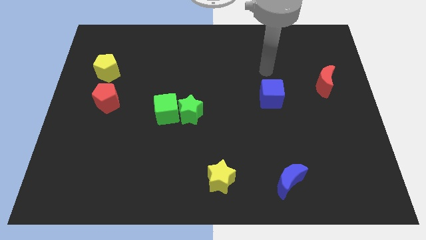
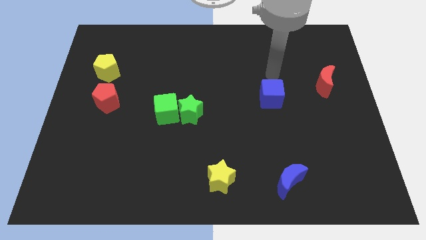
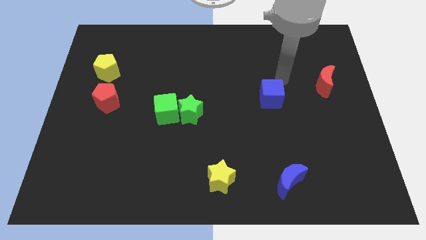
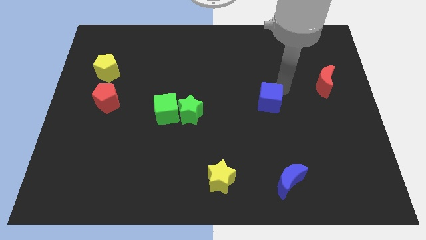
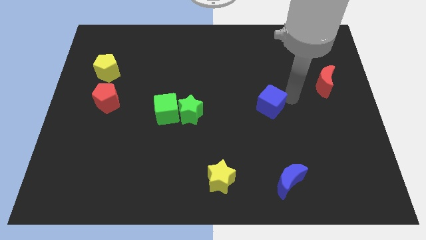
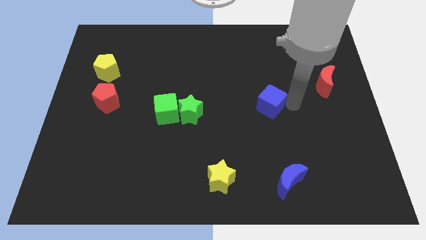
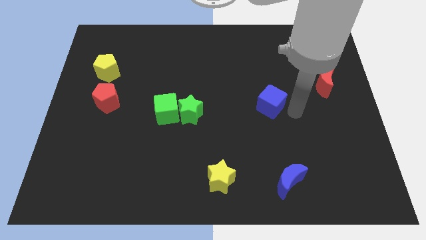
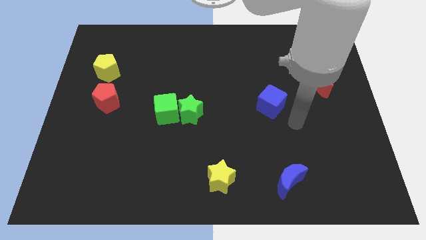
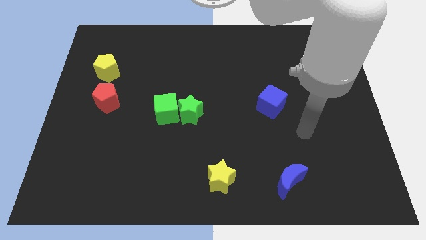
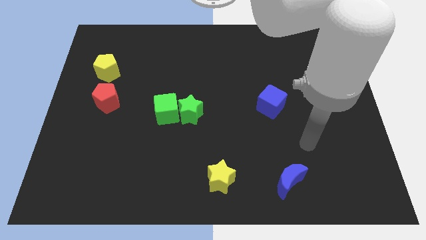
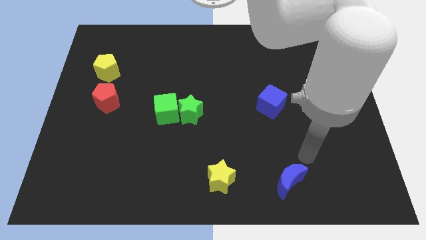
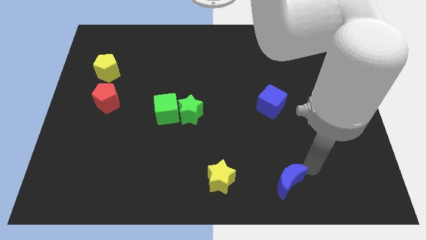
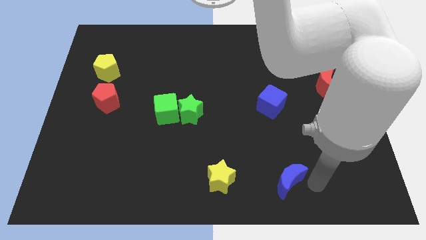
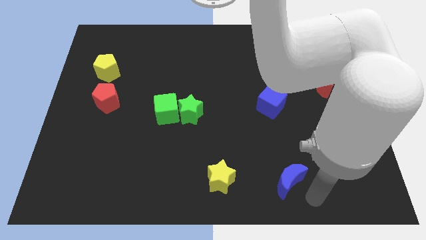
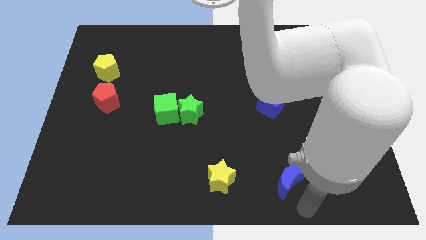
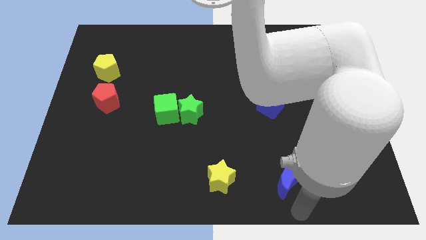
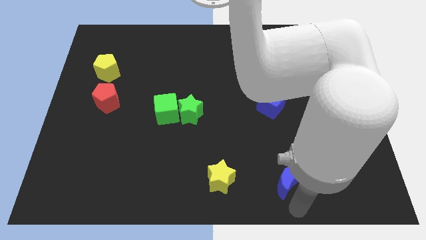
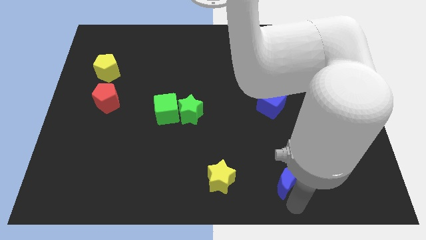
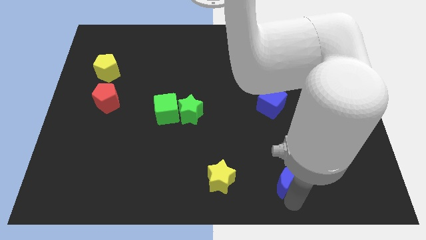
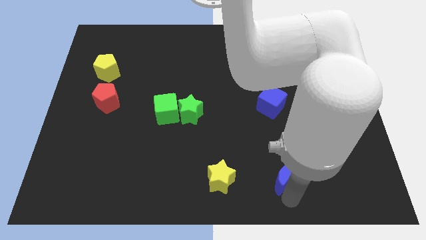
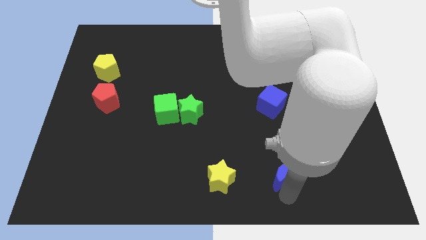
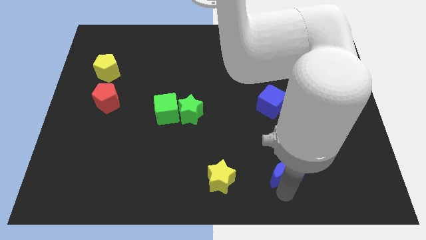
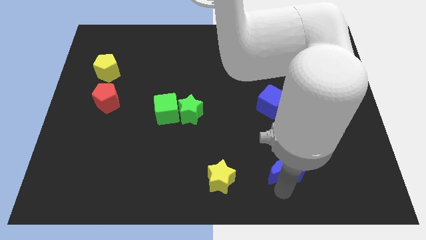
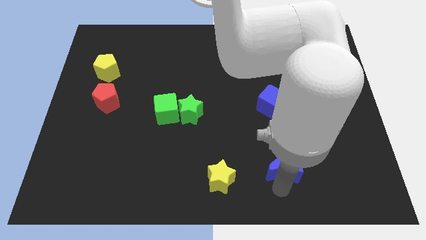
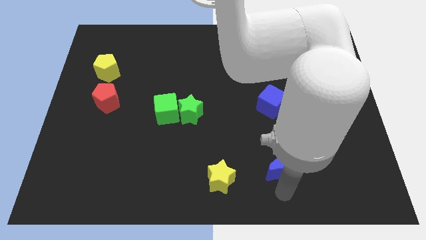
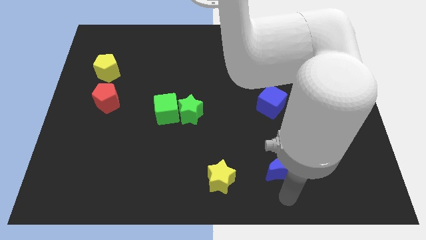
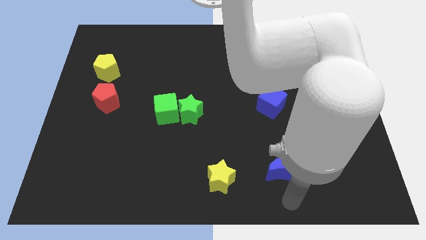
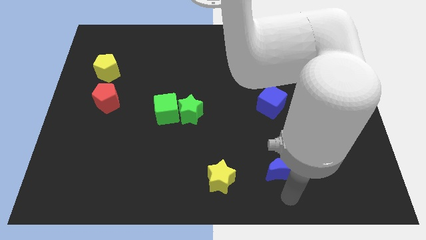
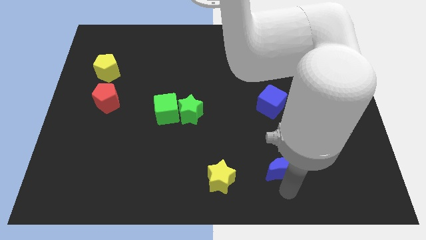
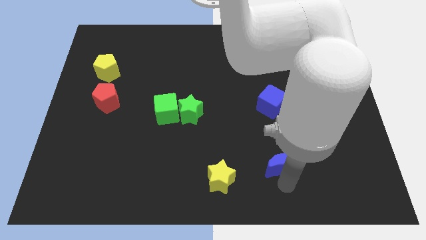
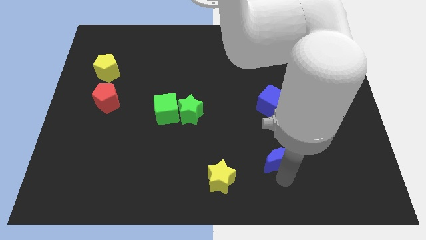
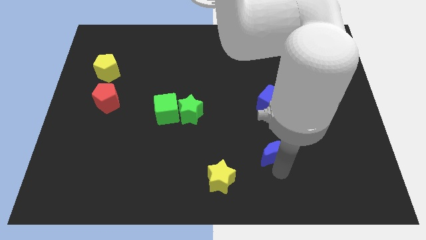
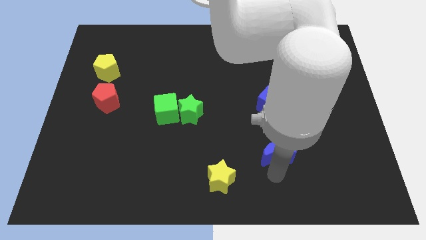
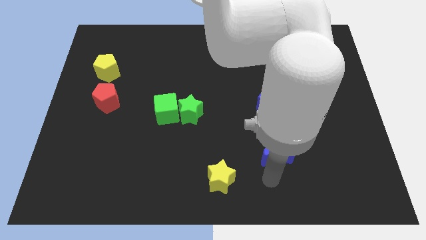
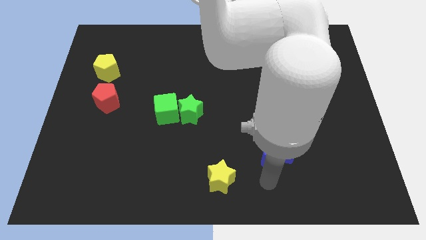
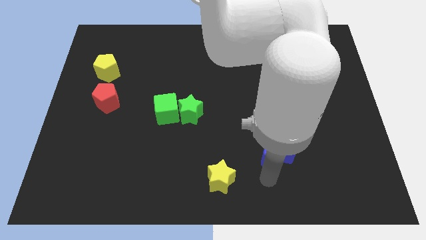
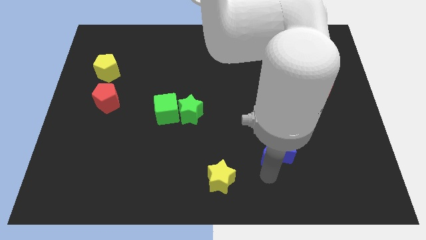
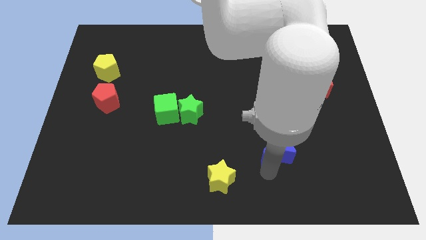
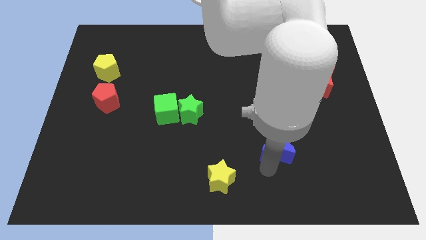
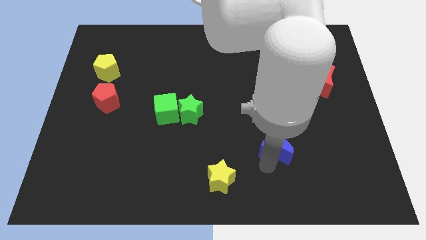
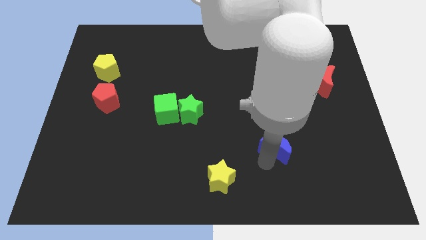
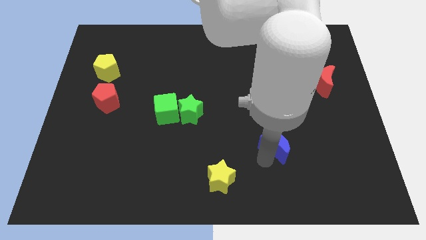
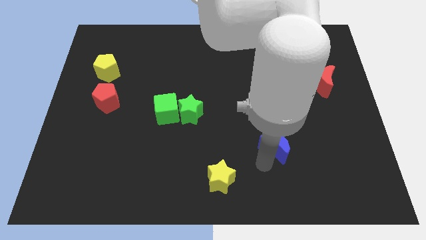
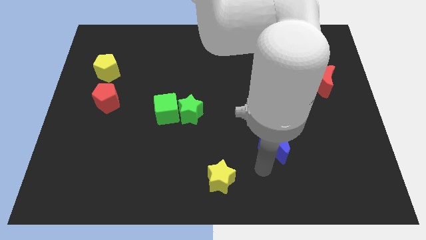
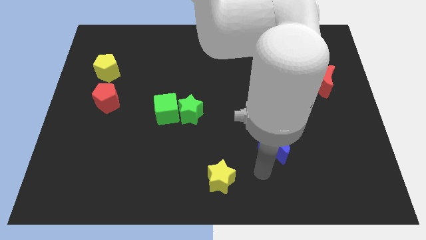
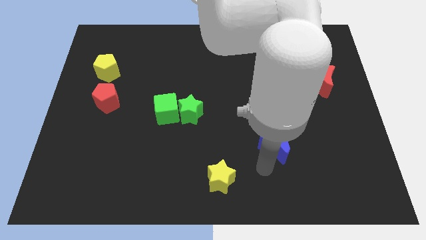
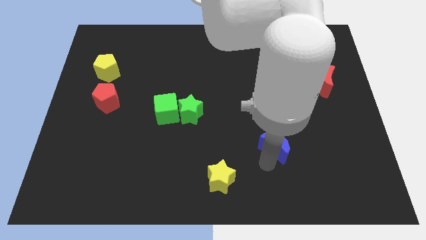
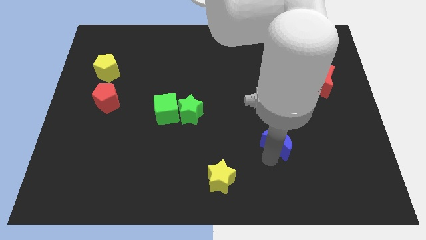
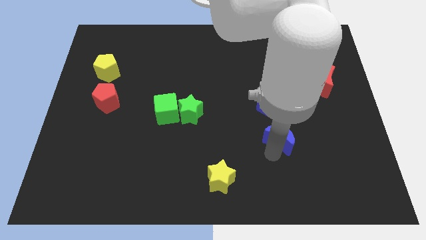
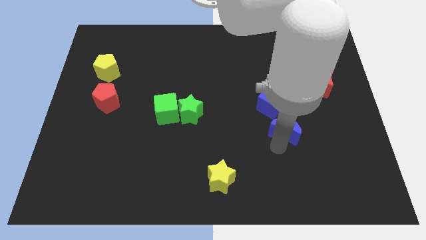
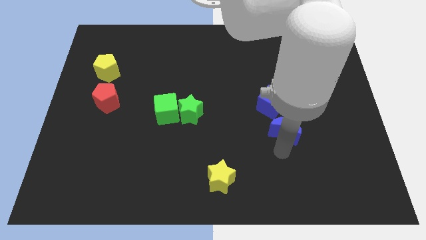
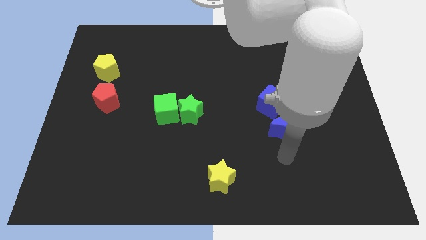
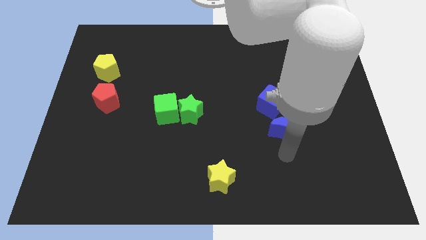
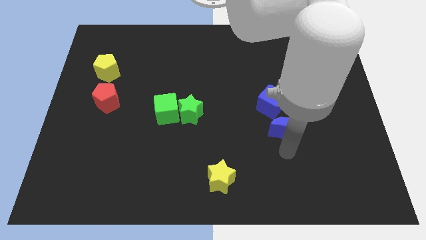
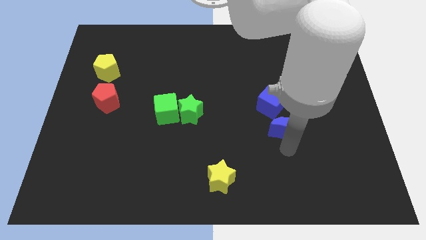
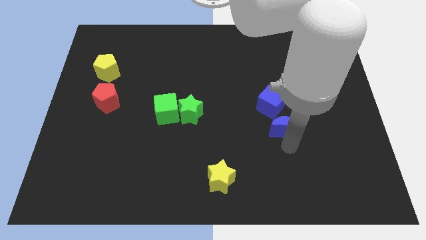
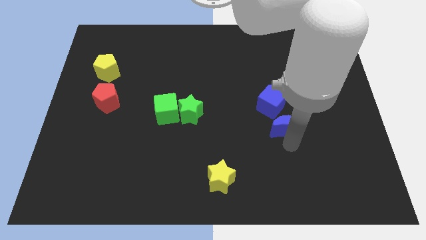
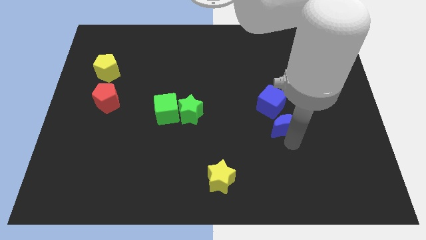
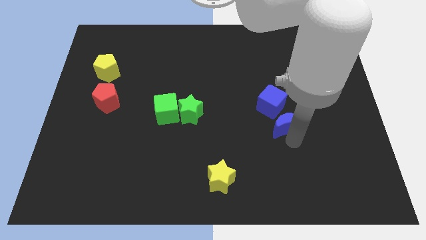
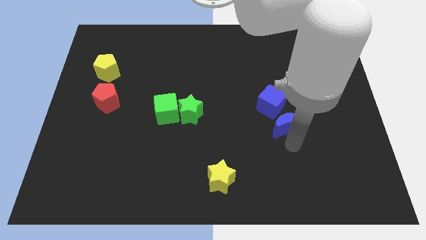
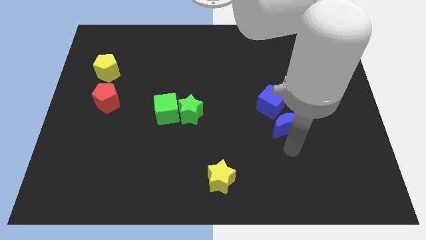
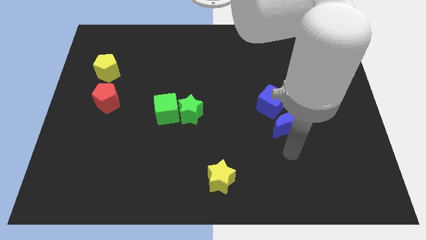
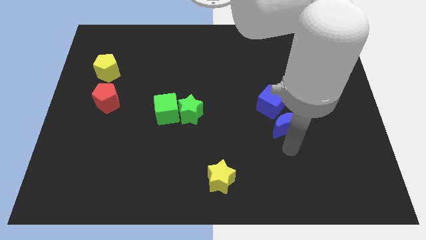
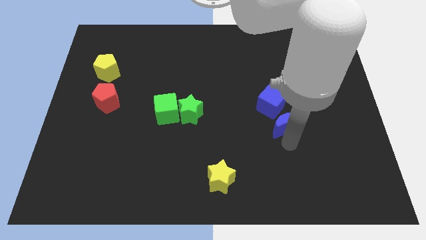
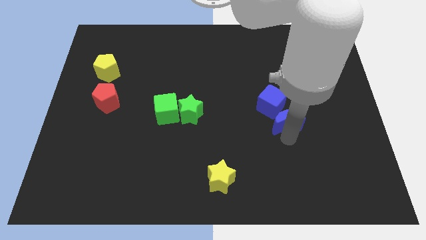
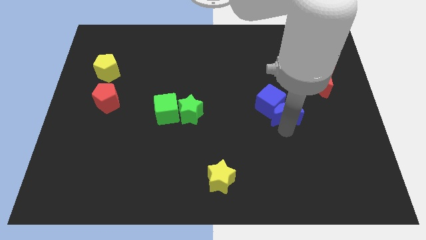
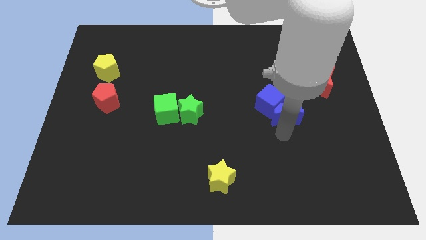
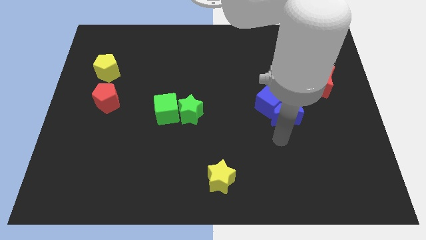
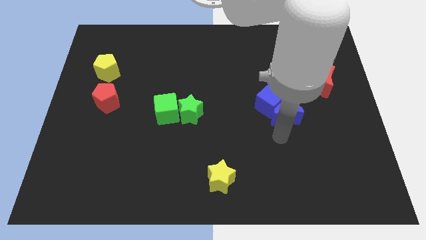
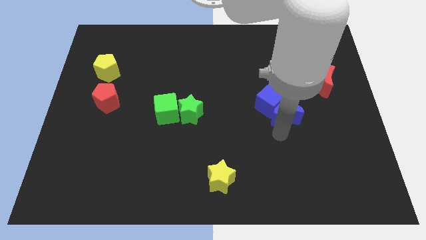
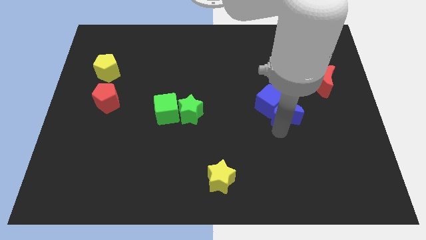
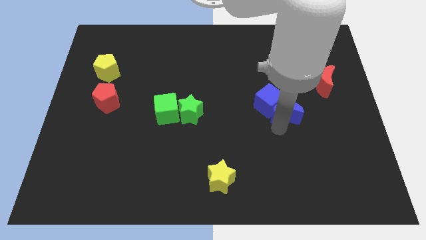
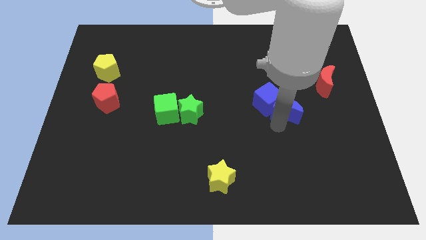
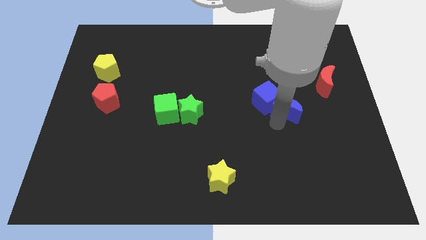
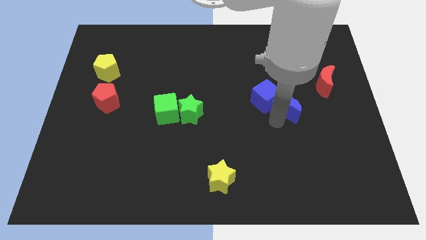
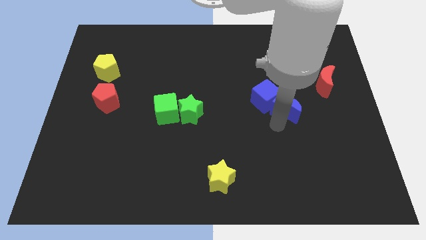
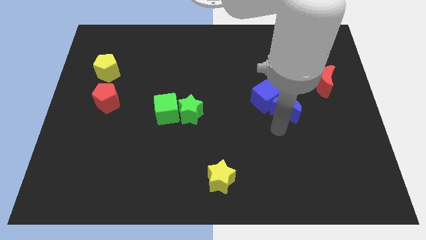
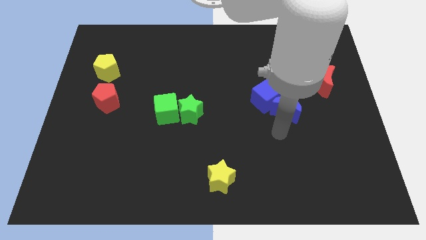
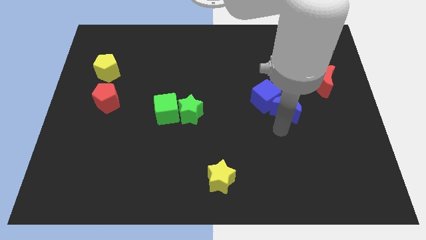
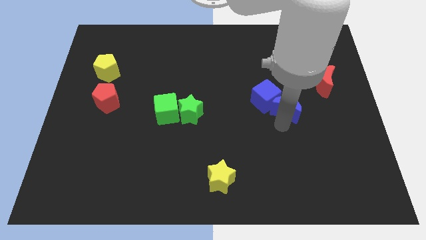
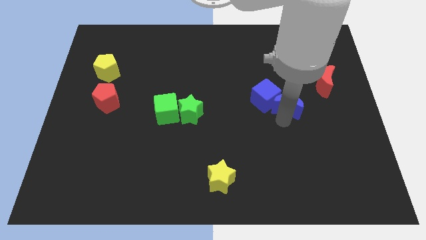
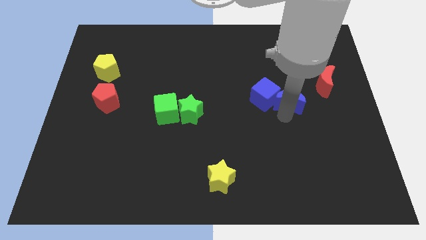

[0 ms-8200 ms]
slide the blue moon up

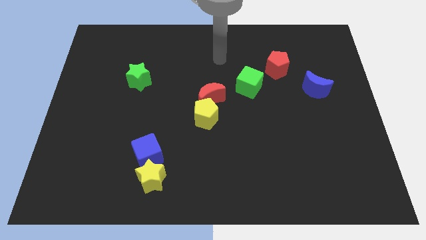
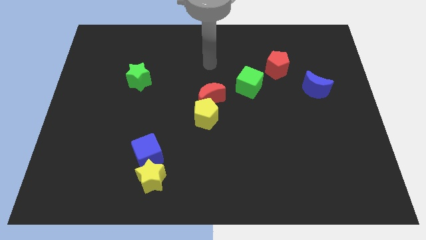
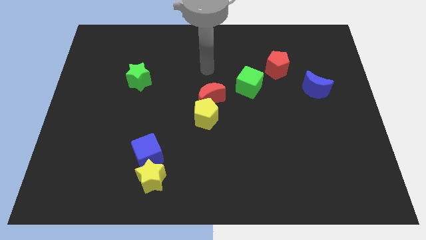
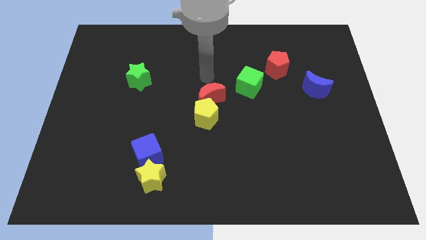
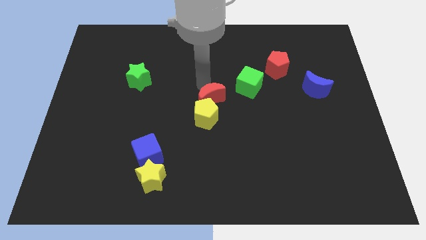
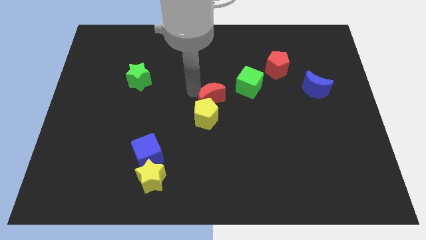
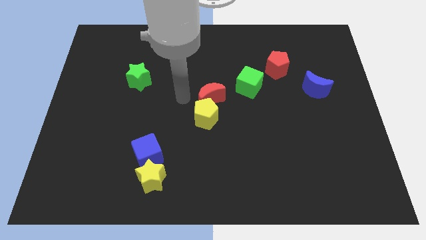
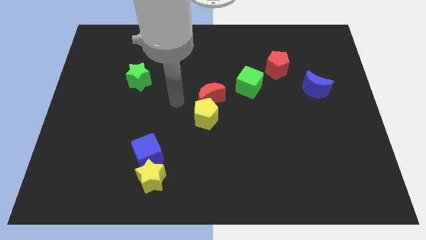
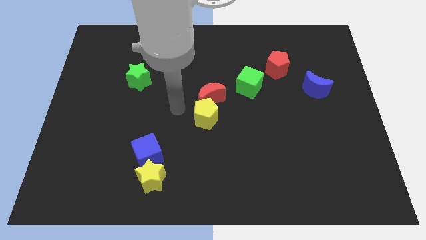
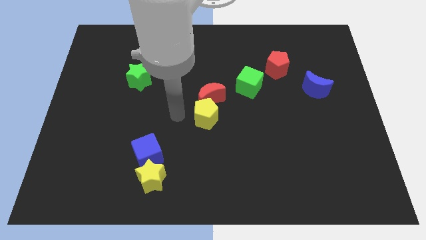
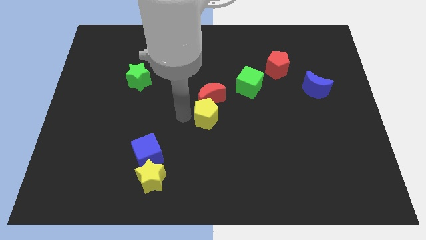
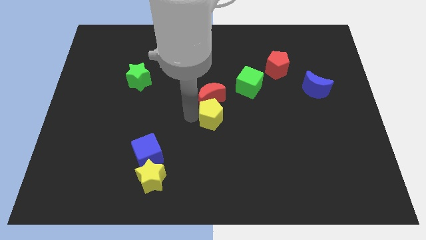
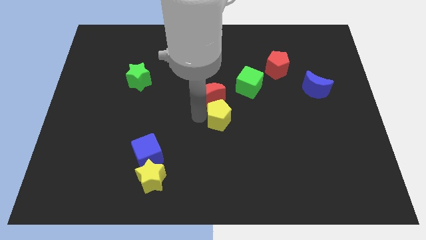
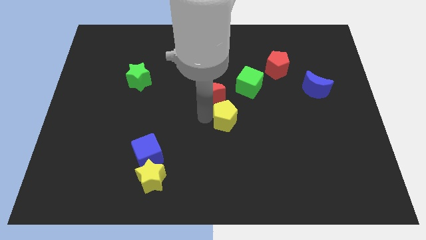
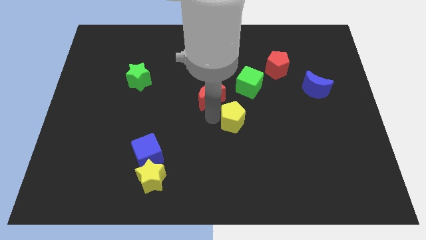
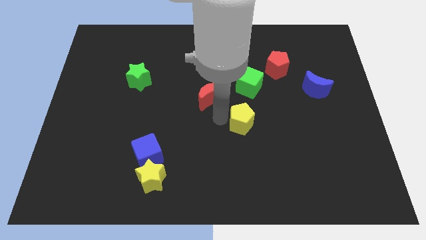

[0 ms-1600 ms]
slightly push the yellow pentagon to the right
